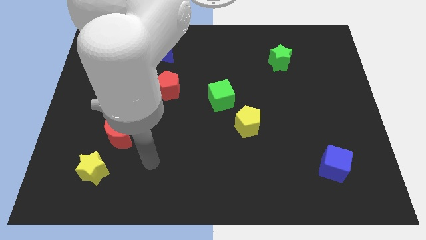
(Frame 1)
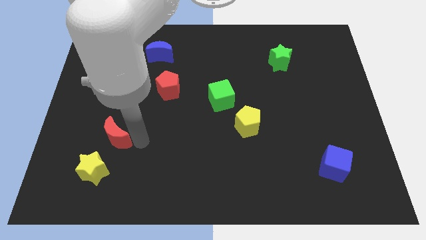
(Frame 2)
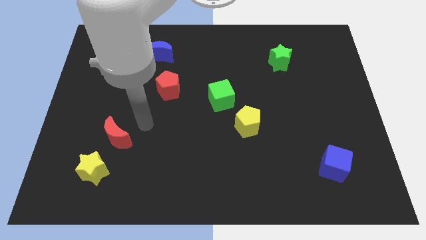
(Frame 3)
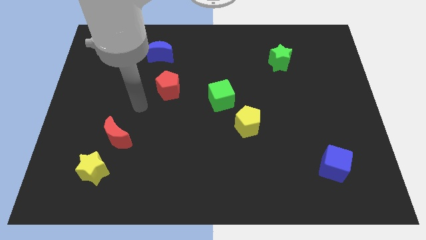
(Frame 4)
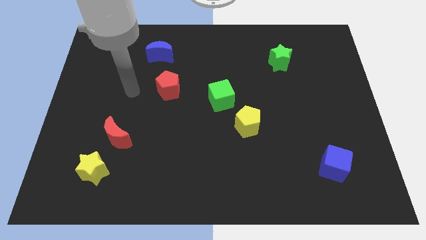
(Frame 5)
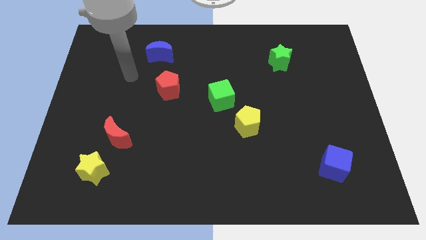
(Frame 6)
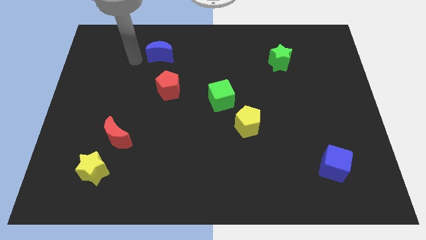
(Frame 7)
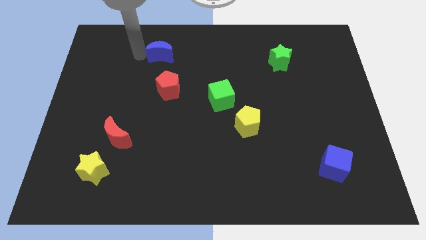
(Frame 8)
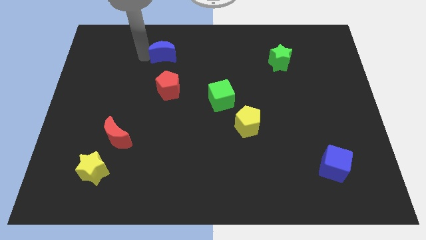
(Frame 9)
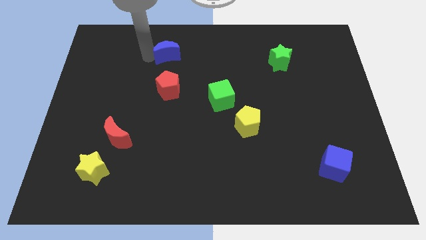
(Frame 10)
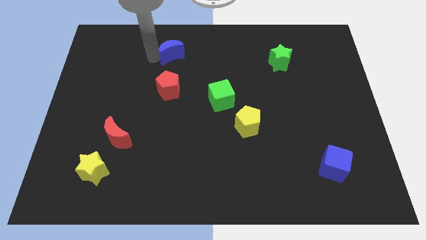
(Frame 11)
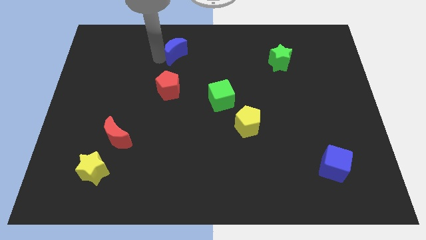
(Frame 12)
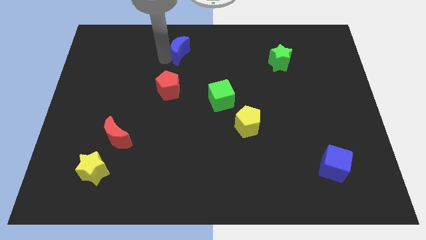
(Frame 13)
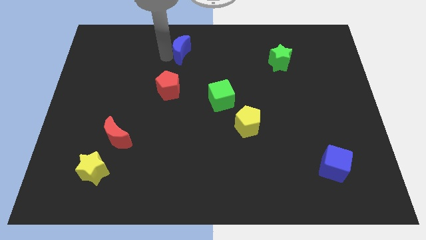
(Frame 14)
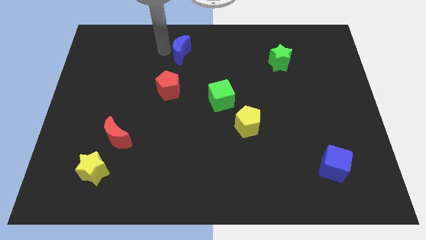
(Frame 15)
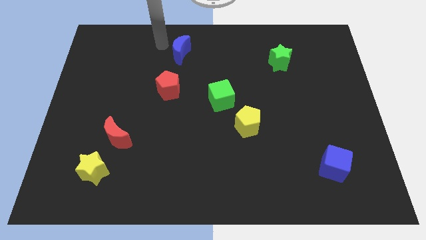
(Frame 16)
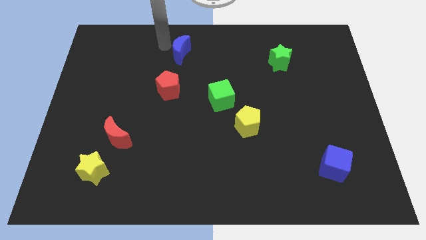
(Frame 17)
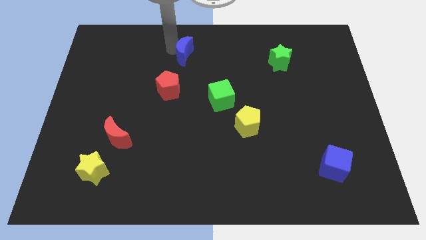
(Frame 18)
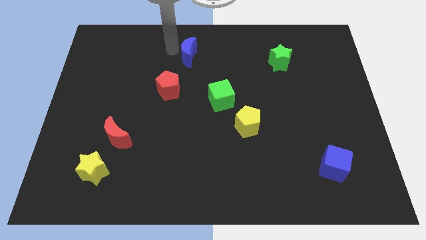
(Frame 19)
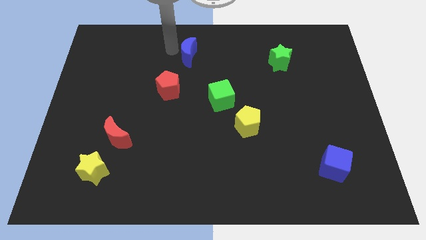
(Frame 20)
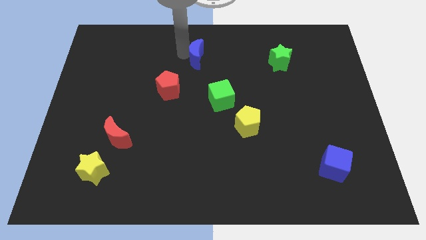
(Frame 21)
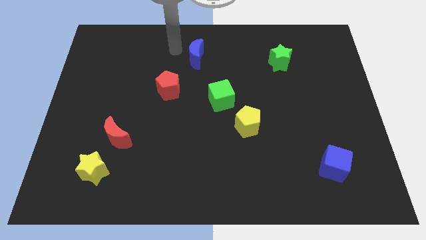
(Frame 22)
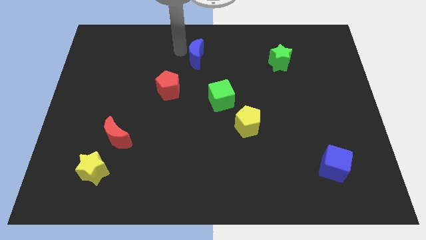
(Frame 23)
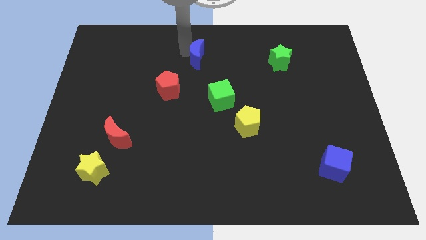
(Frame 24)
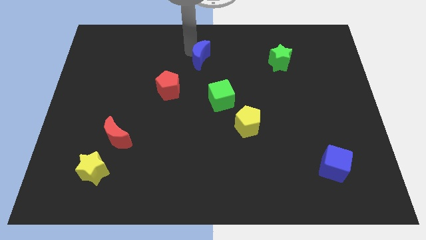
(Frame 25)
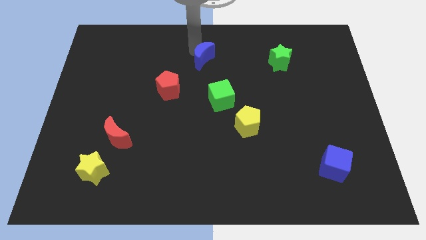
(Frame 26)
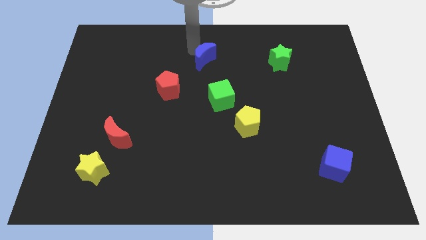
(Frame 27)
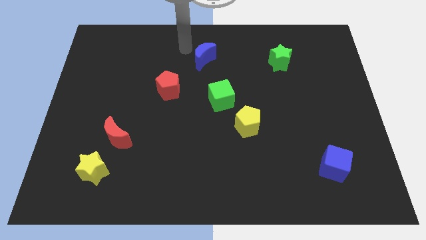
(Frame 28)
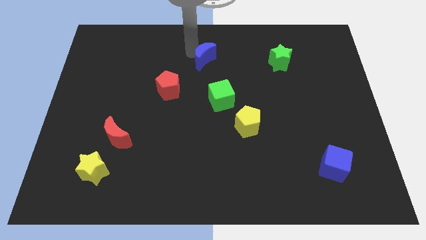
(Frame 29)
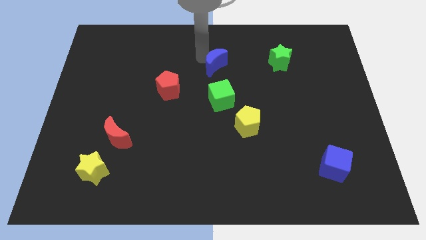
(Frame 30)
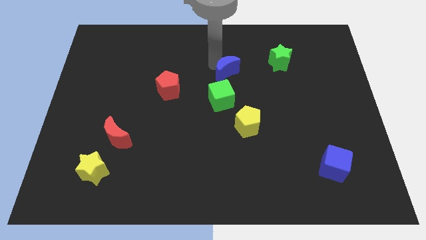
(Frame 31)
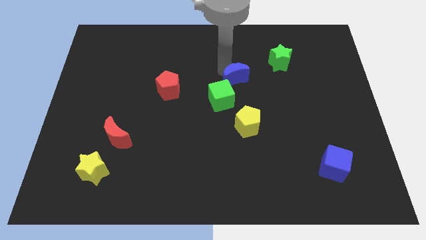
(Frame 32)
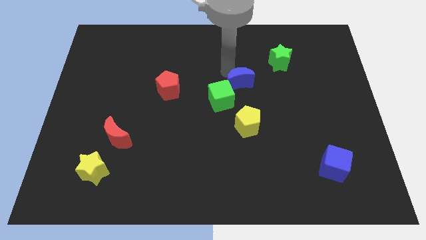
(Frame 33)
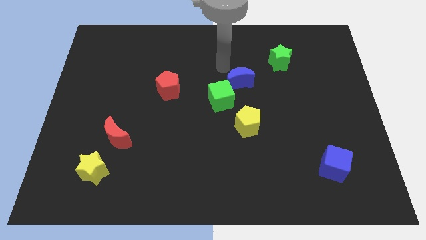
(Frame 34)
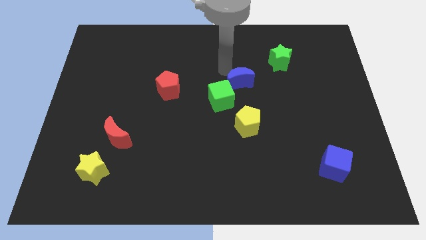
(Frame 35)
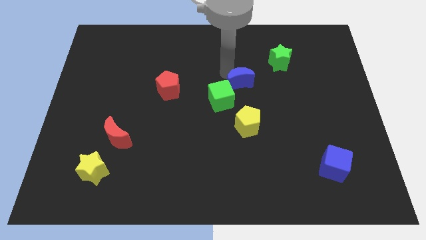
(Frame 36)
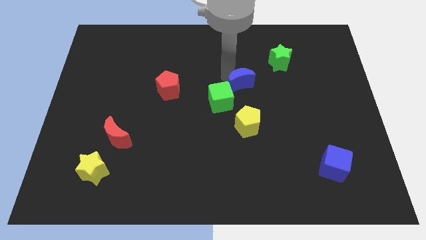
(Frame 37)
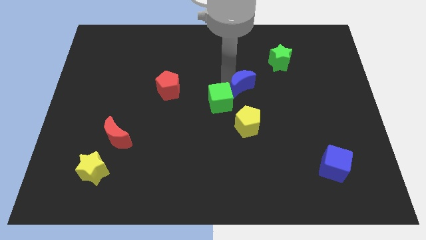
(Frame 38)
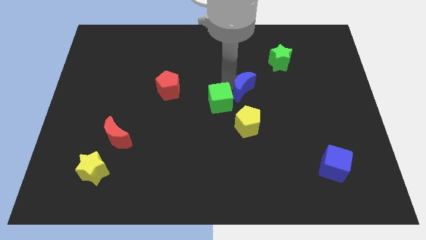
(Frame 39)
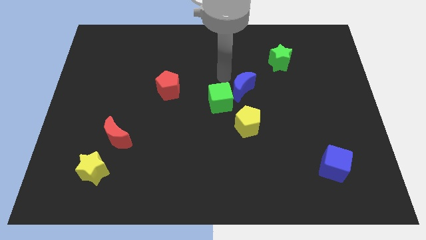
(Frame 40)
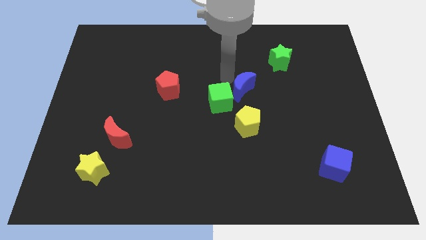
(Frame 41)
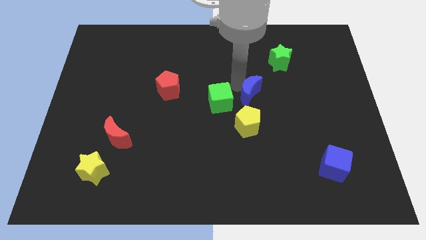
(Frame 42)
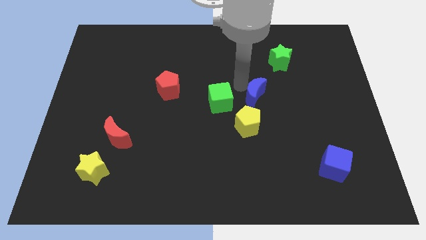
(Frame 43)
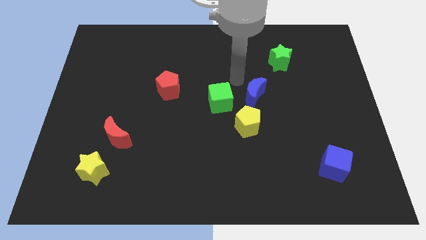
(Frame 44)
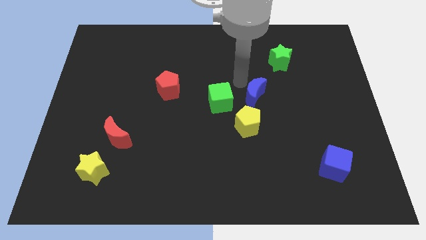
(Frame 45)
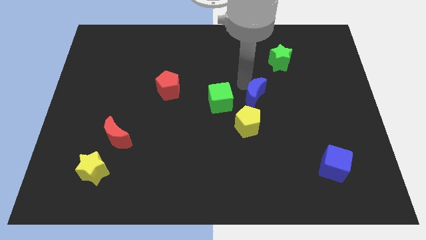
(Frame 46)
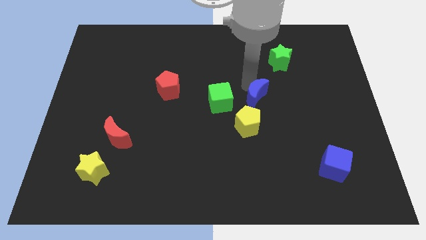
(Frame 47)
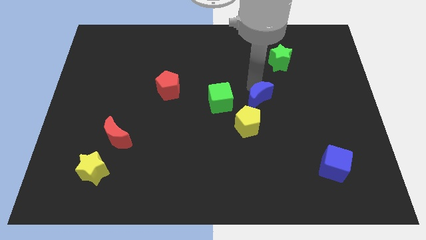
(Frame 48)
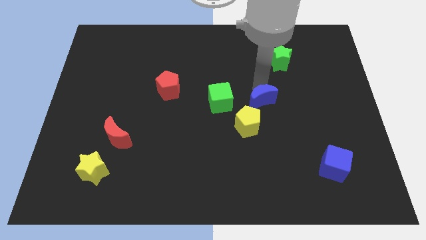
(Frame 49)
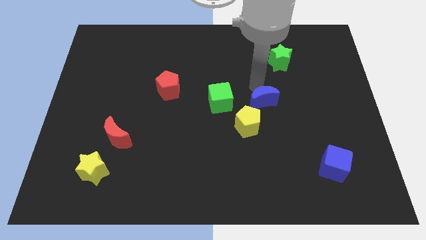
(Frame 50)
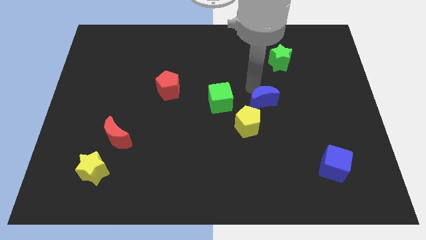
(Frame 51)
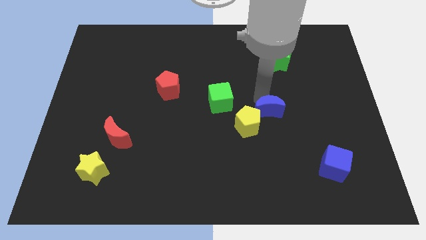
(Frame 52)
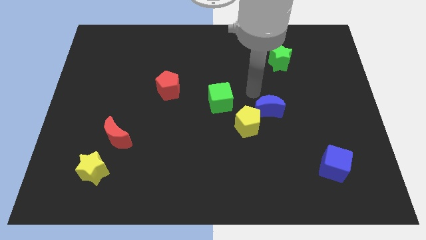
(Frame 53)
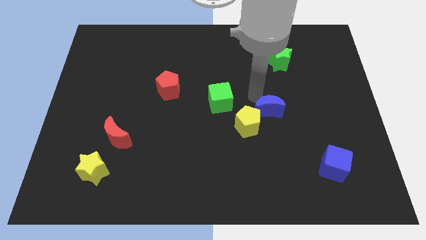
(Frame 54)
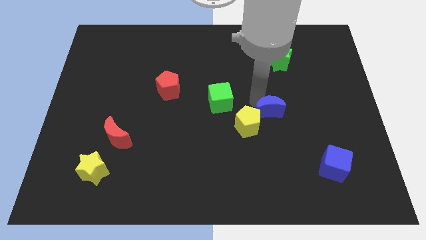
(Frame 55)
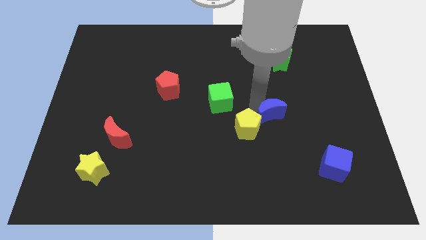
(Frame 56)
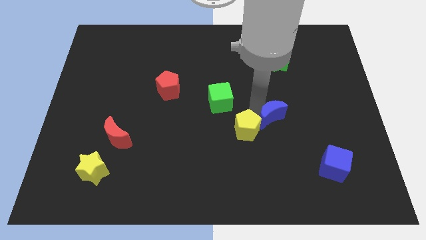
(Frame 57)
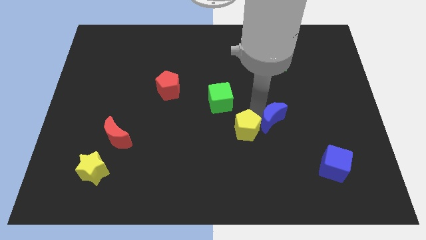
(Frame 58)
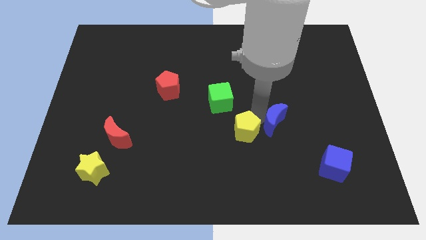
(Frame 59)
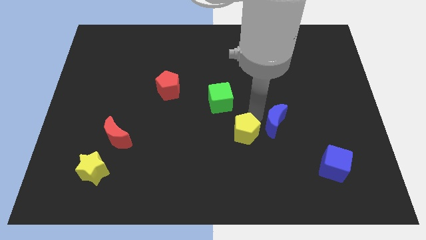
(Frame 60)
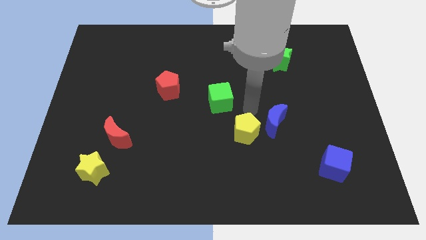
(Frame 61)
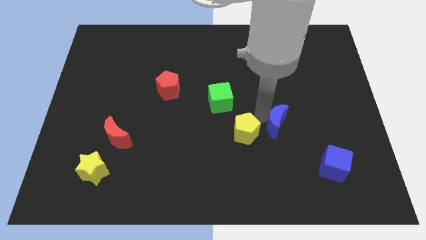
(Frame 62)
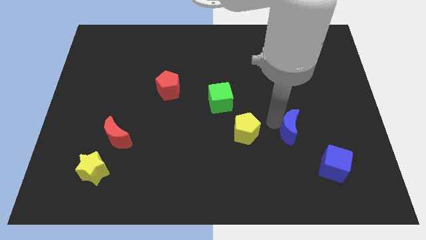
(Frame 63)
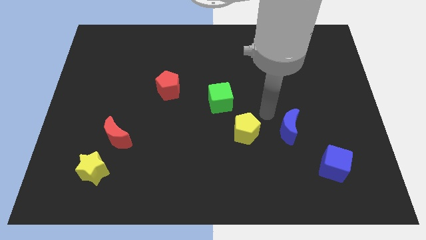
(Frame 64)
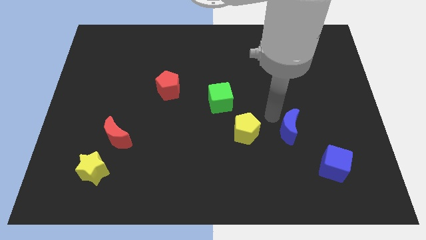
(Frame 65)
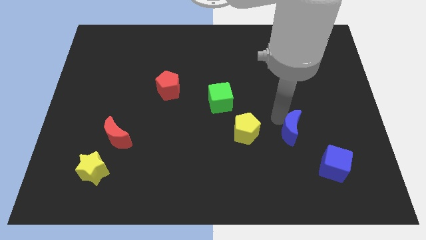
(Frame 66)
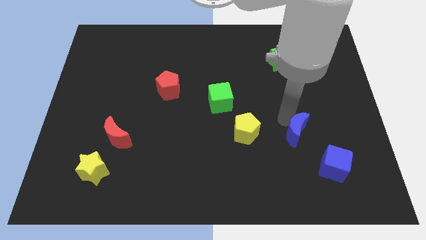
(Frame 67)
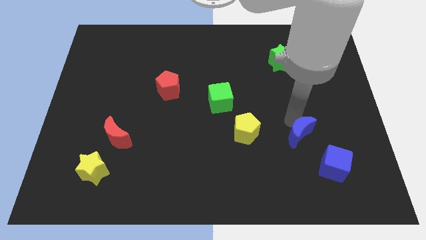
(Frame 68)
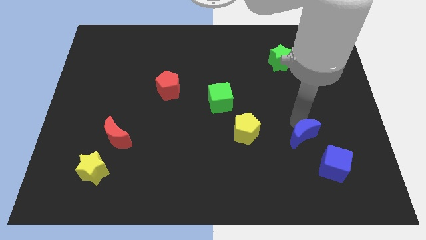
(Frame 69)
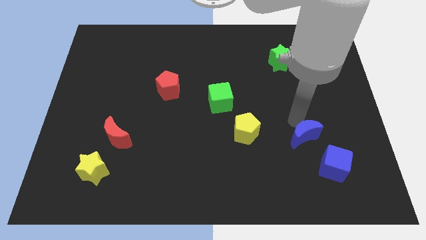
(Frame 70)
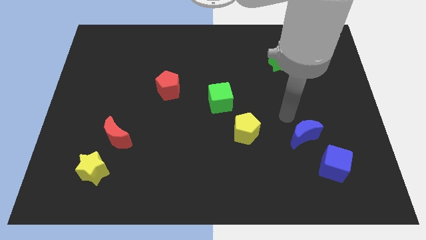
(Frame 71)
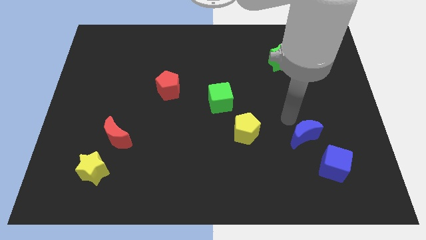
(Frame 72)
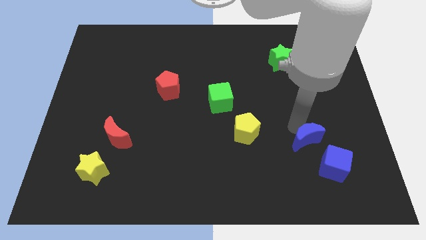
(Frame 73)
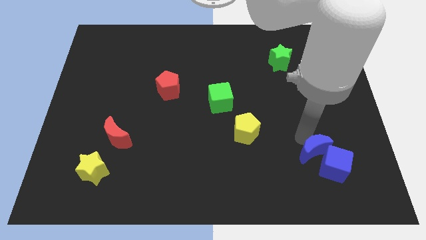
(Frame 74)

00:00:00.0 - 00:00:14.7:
slide the blue moon next to the blue cube
